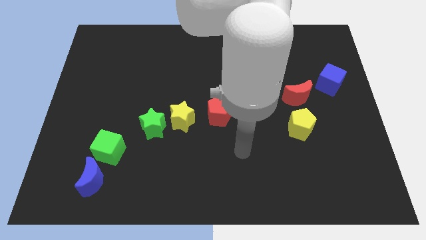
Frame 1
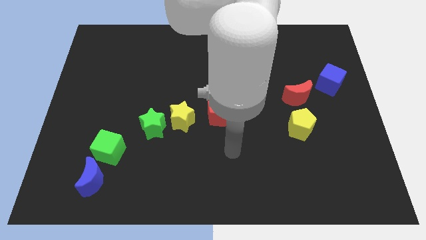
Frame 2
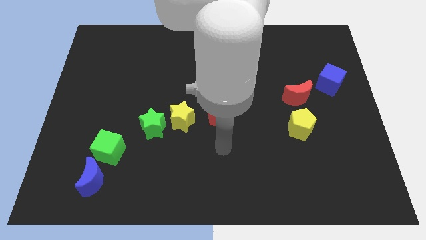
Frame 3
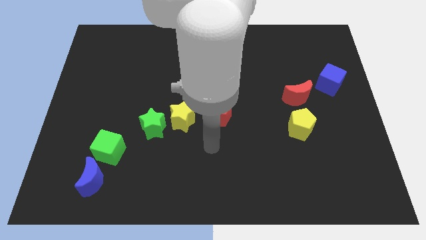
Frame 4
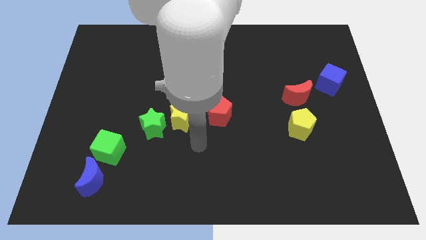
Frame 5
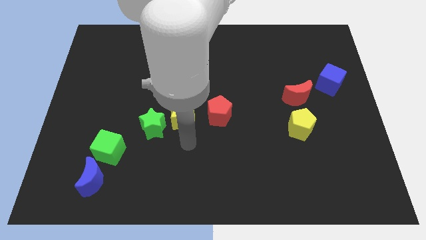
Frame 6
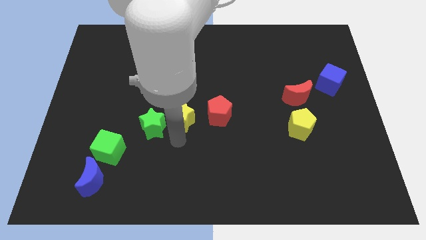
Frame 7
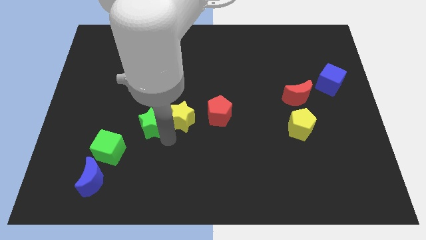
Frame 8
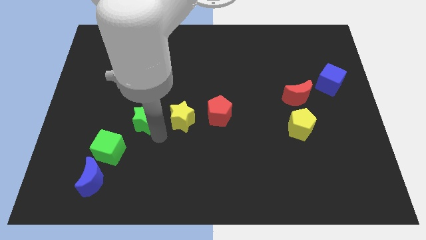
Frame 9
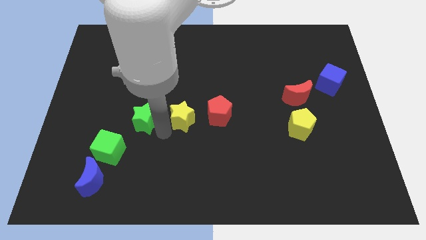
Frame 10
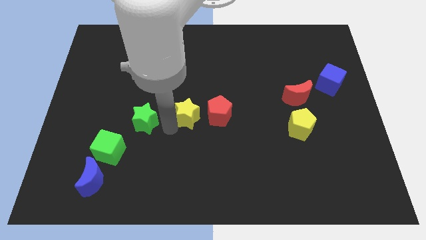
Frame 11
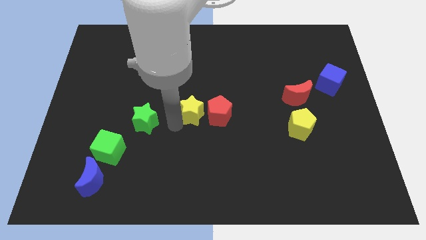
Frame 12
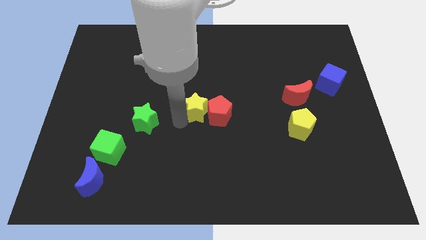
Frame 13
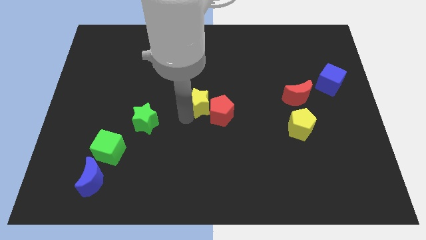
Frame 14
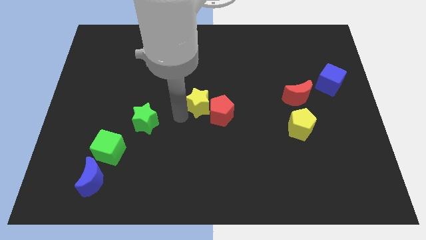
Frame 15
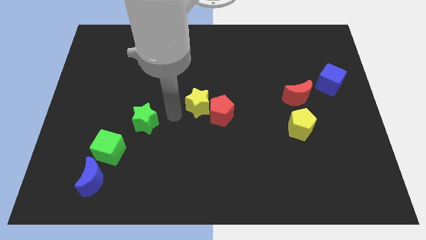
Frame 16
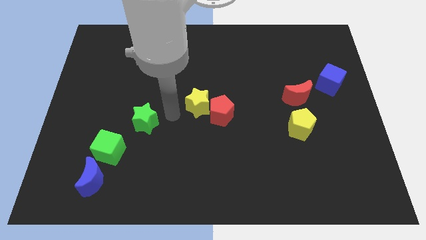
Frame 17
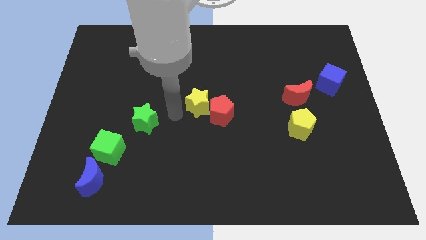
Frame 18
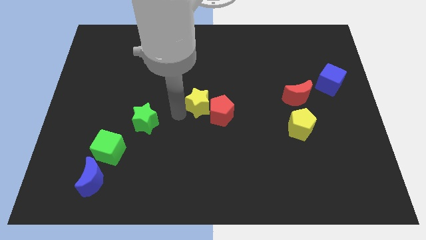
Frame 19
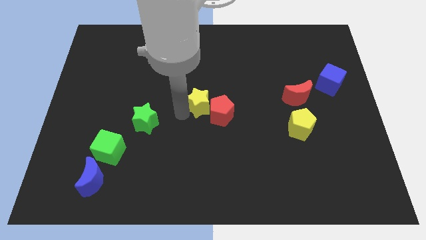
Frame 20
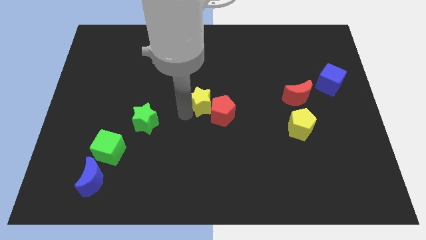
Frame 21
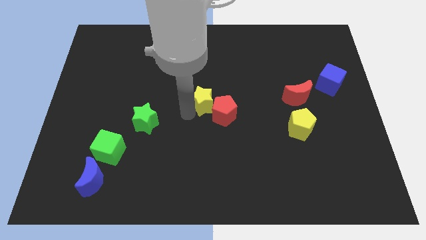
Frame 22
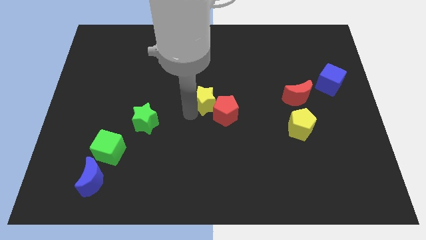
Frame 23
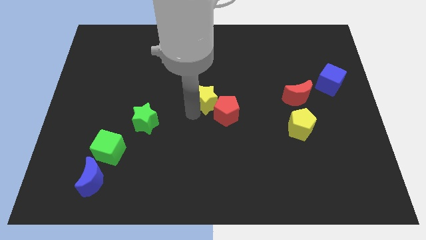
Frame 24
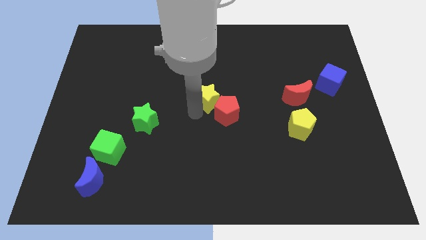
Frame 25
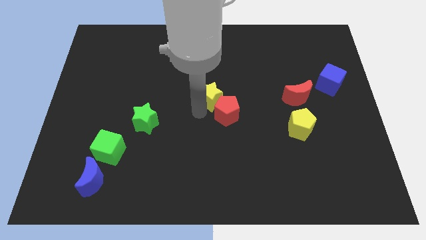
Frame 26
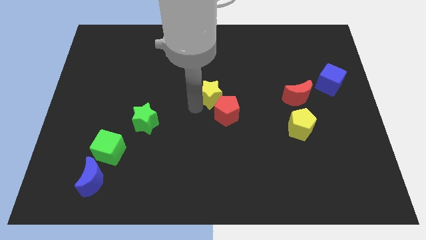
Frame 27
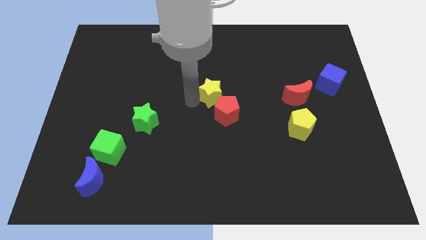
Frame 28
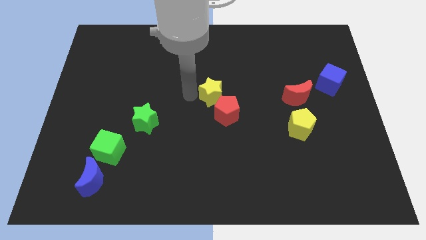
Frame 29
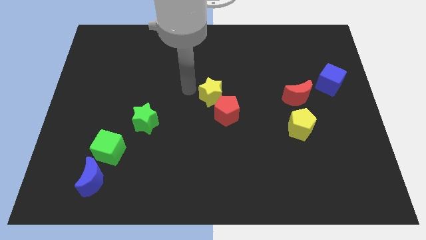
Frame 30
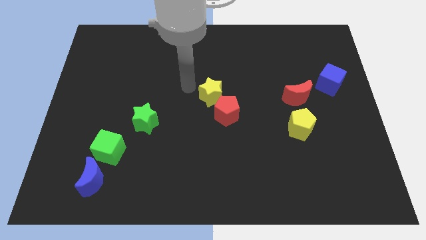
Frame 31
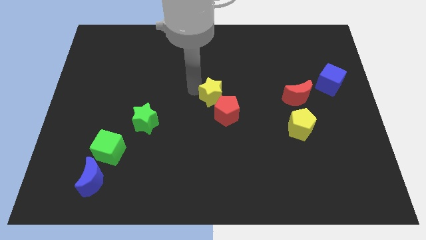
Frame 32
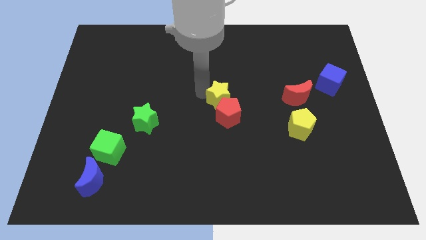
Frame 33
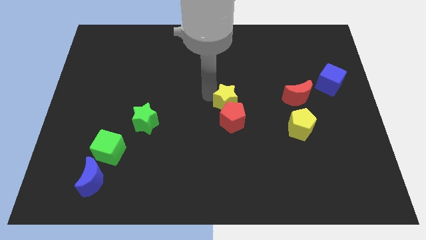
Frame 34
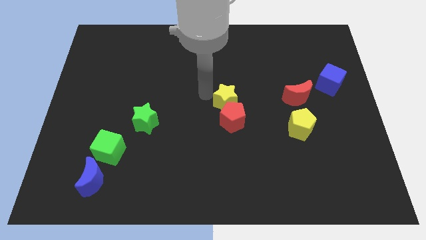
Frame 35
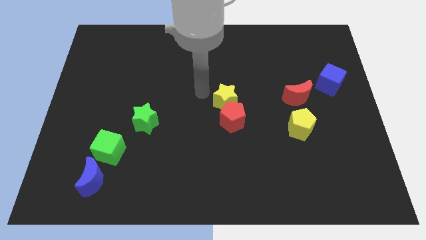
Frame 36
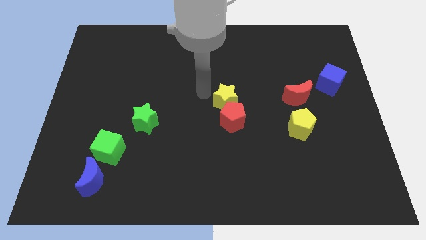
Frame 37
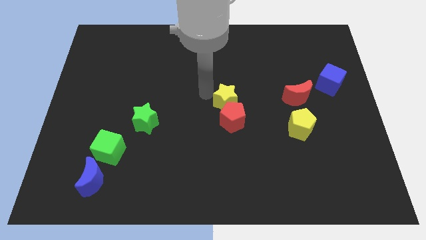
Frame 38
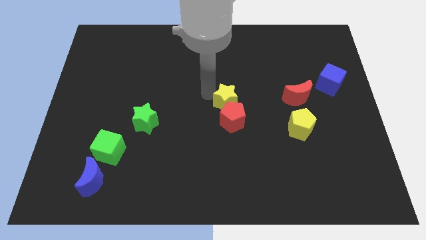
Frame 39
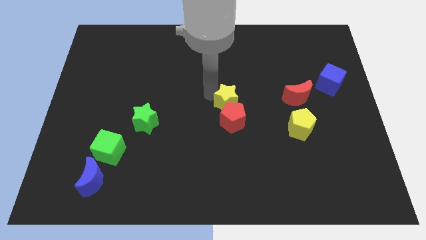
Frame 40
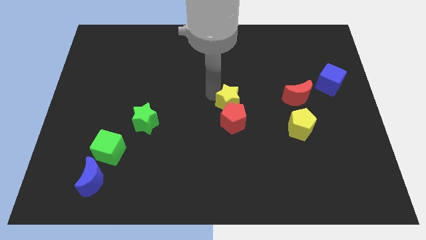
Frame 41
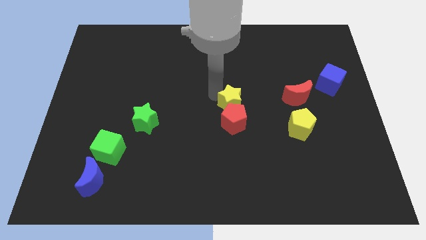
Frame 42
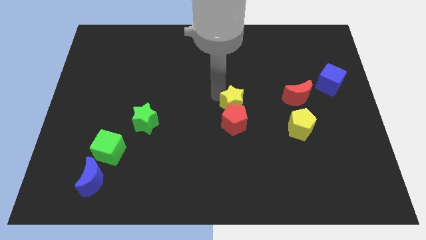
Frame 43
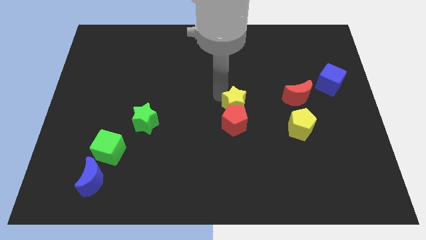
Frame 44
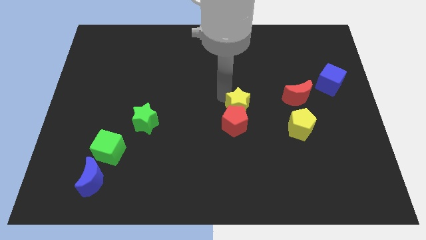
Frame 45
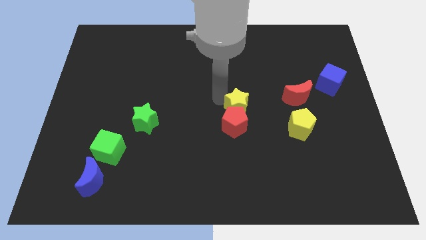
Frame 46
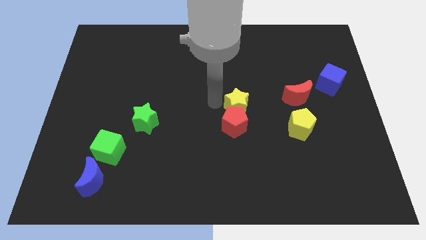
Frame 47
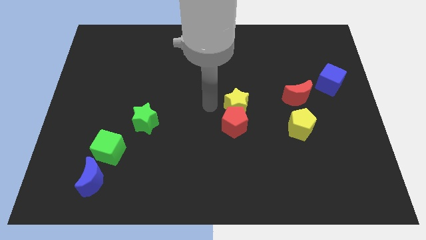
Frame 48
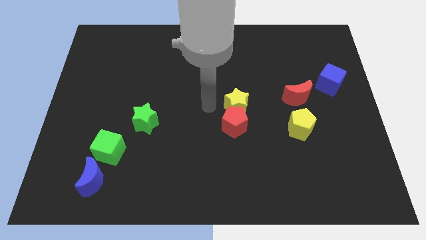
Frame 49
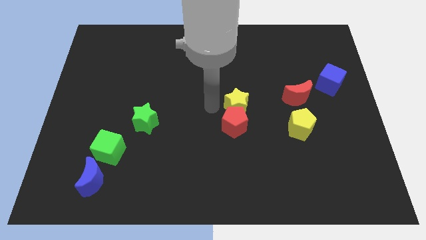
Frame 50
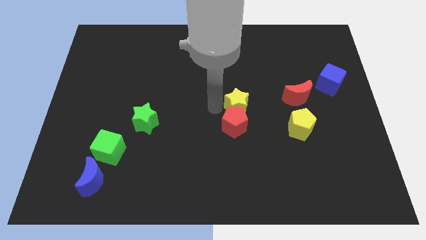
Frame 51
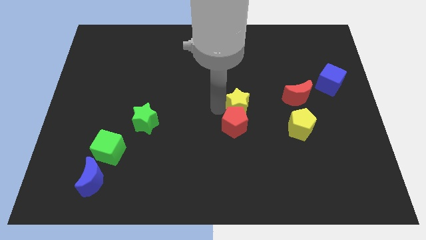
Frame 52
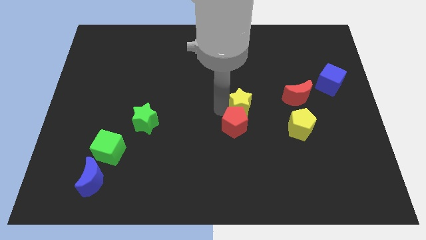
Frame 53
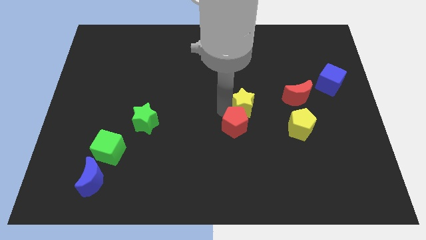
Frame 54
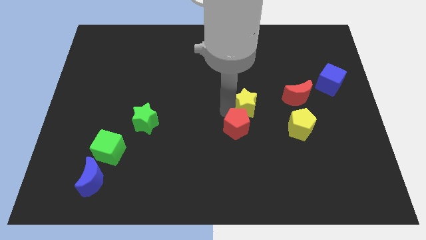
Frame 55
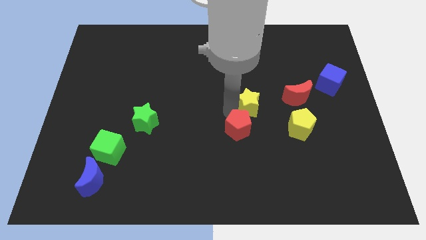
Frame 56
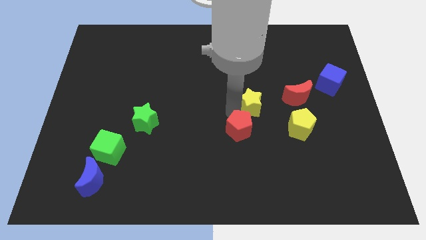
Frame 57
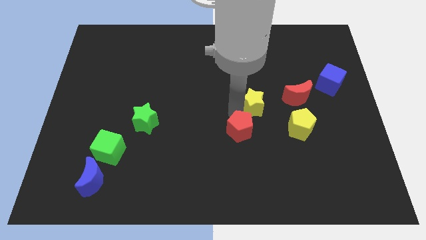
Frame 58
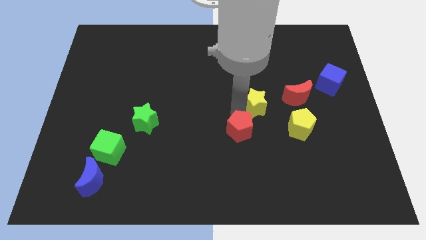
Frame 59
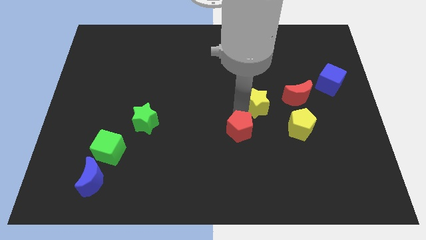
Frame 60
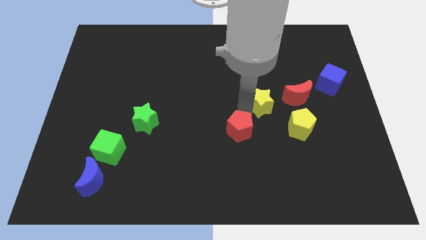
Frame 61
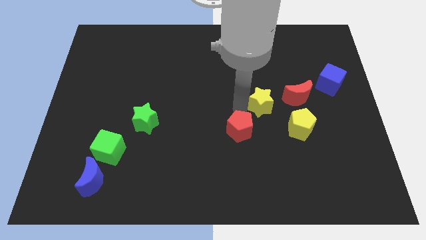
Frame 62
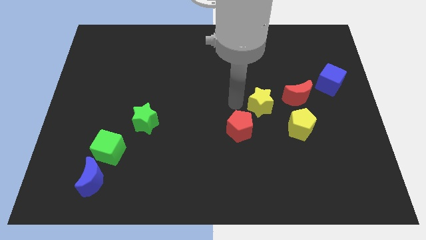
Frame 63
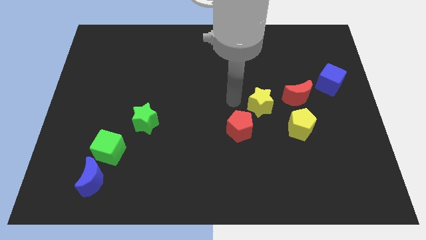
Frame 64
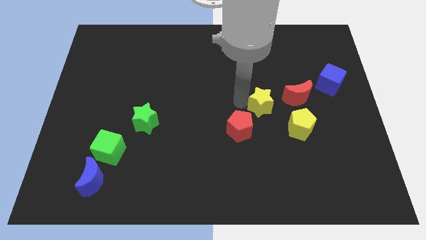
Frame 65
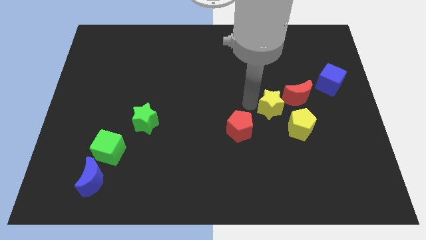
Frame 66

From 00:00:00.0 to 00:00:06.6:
push the yellow star right

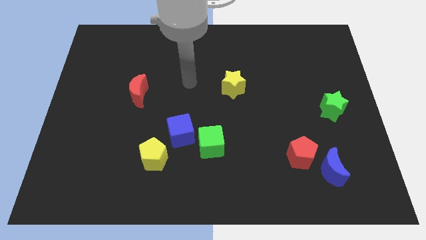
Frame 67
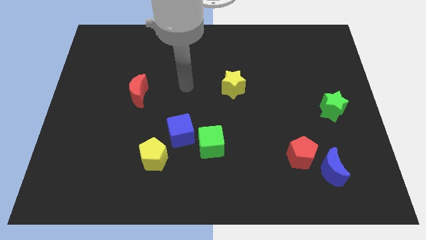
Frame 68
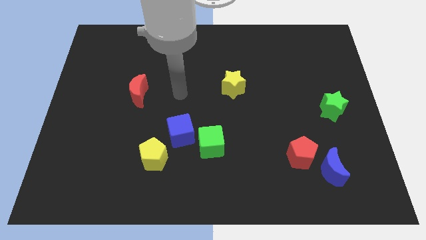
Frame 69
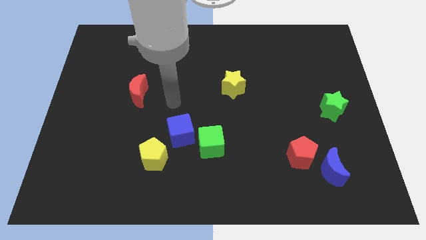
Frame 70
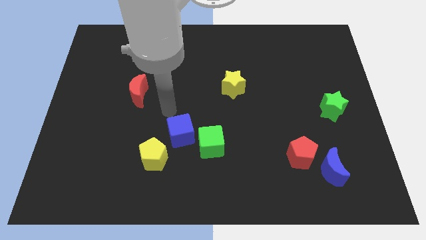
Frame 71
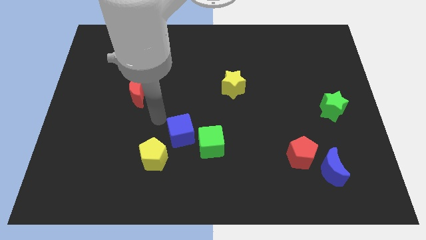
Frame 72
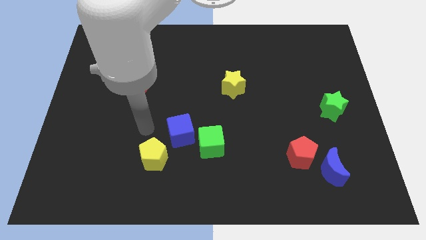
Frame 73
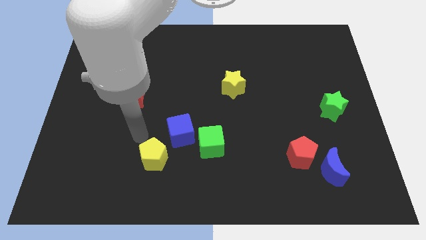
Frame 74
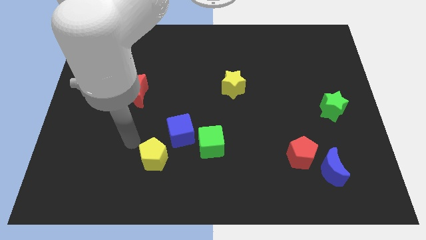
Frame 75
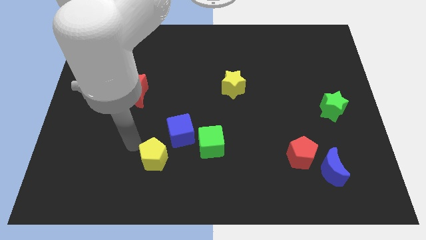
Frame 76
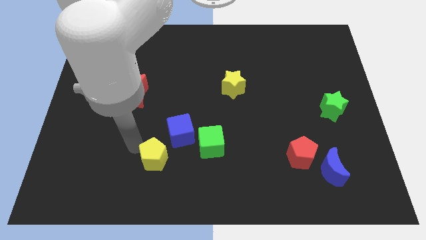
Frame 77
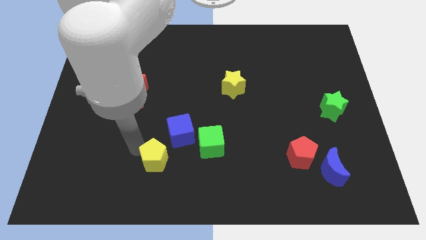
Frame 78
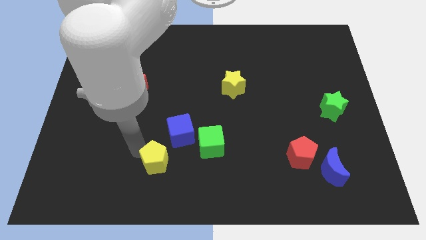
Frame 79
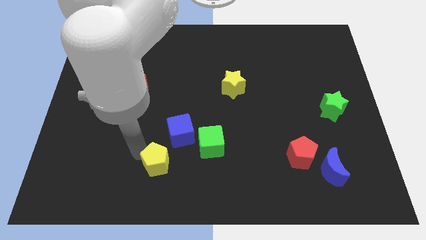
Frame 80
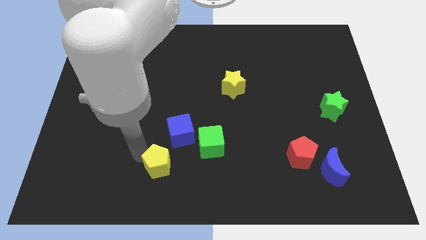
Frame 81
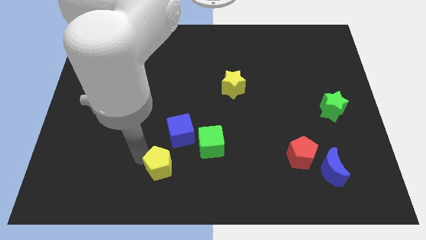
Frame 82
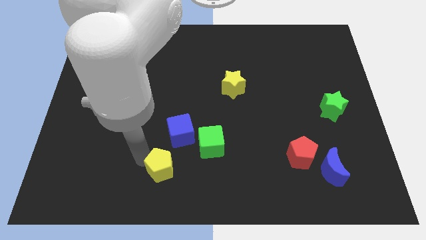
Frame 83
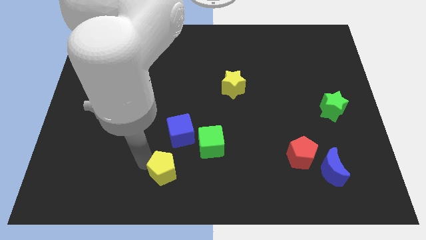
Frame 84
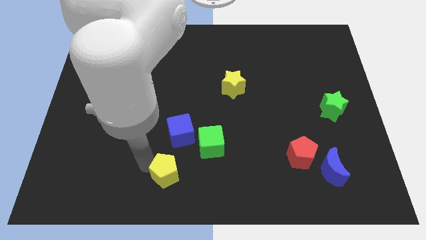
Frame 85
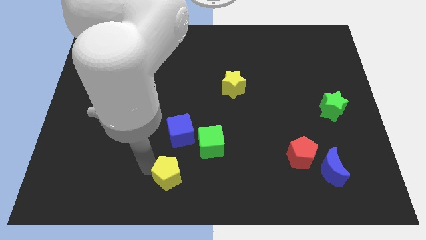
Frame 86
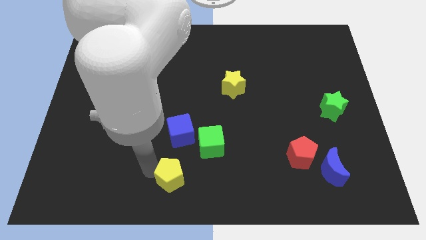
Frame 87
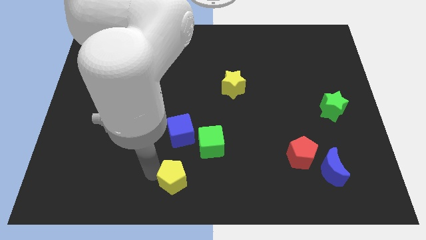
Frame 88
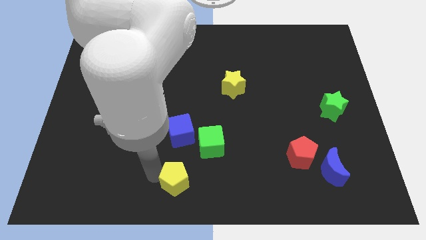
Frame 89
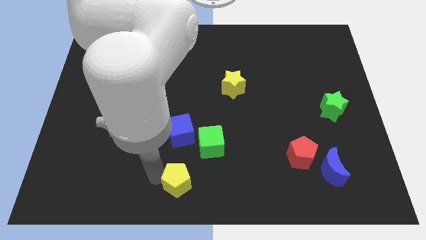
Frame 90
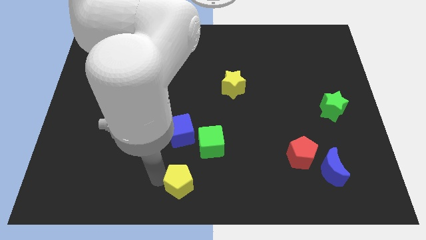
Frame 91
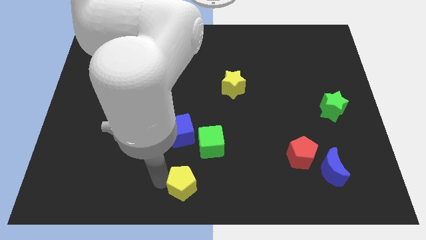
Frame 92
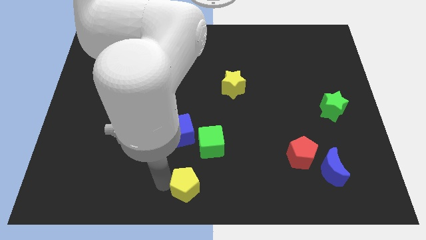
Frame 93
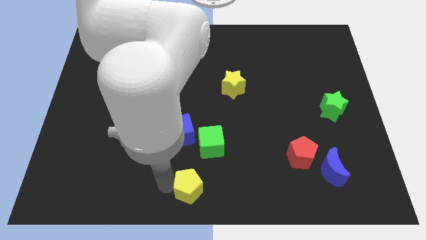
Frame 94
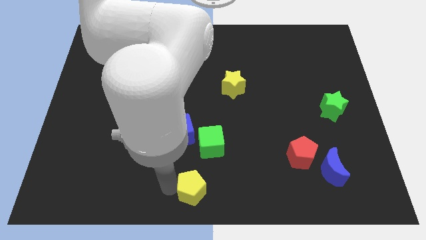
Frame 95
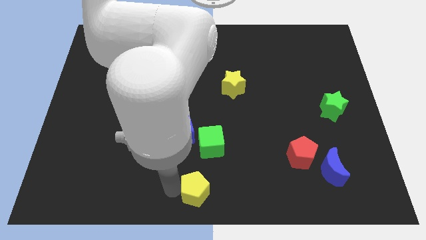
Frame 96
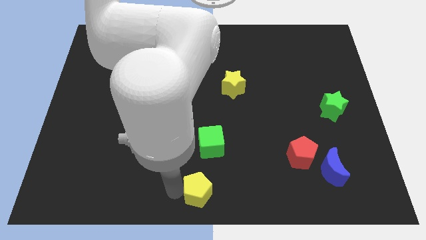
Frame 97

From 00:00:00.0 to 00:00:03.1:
slide the yellow pentagon a bit to the right
